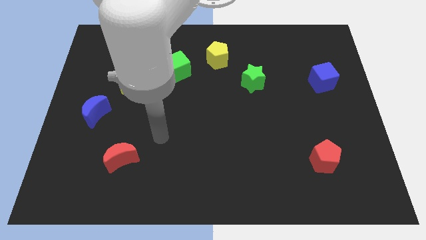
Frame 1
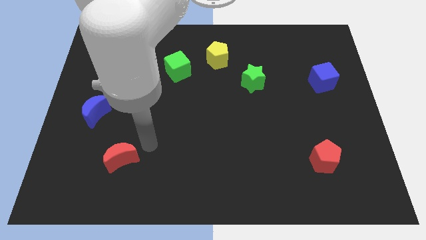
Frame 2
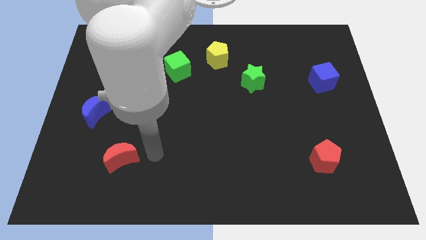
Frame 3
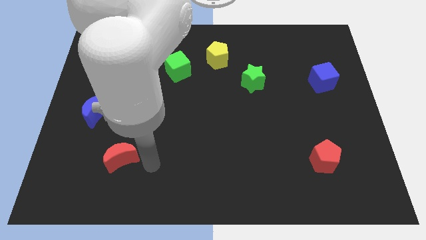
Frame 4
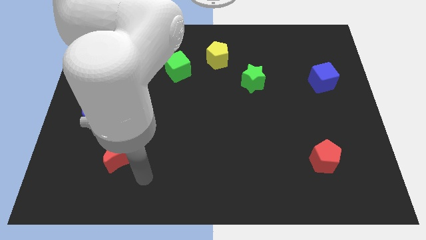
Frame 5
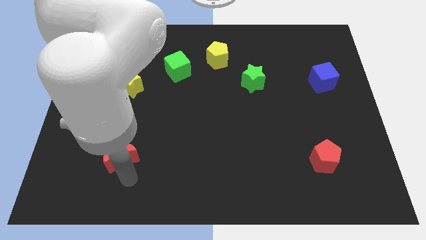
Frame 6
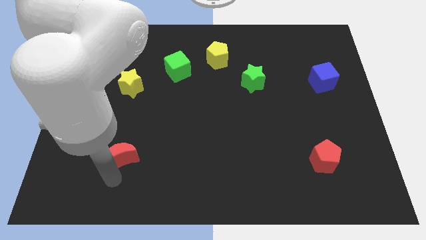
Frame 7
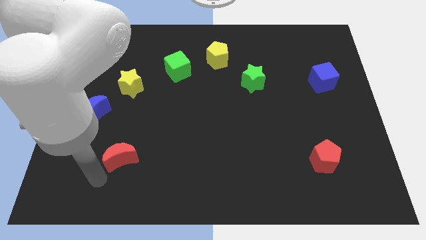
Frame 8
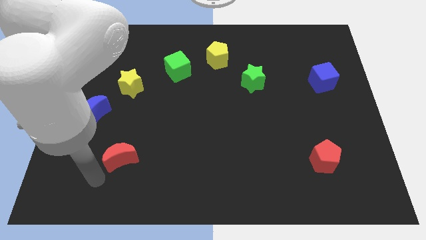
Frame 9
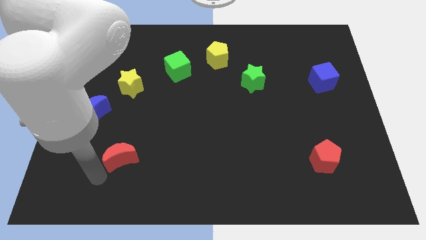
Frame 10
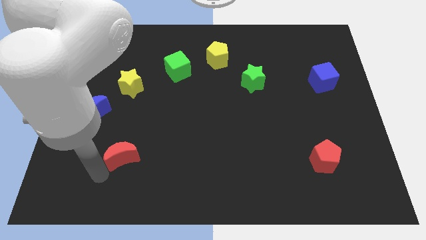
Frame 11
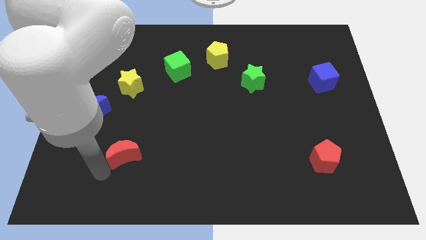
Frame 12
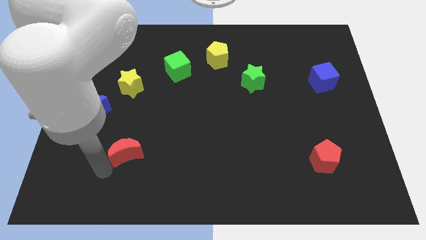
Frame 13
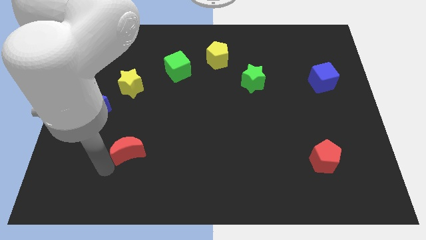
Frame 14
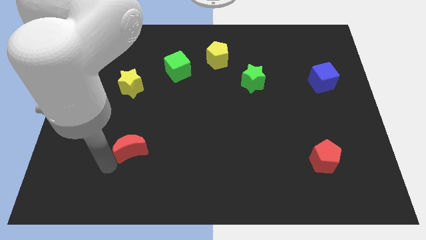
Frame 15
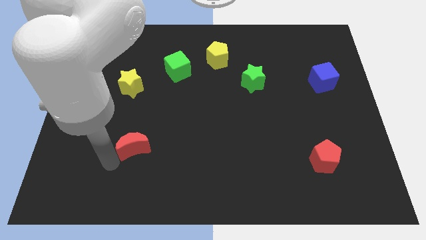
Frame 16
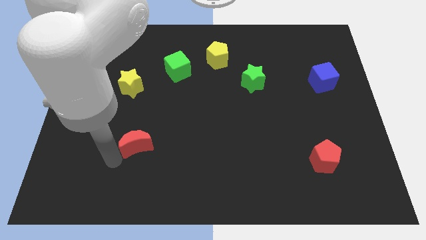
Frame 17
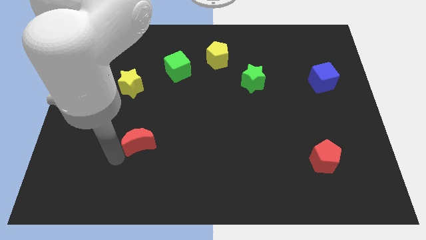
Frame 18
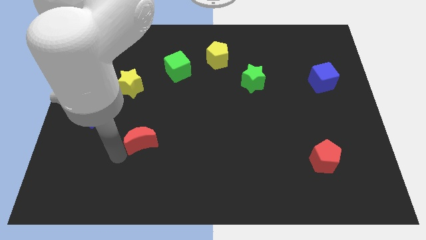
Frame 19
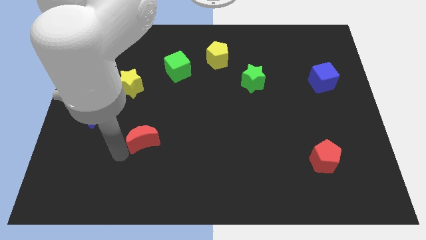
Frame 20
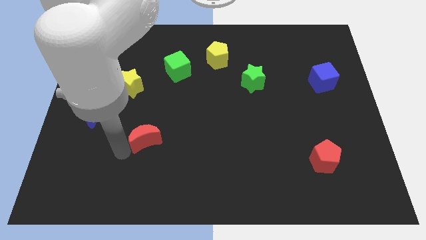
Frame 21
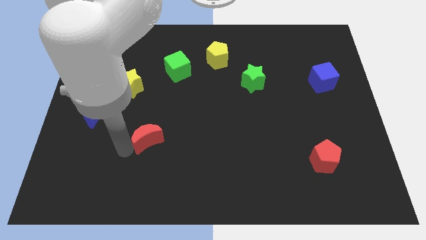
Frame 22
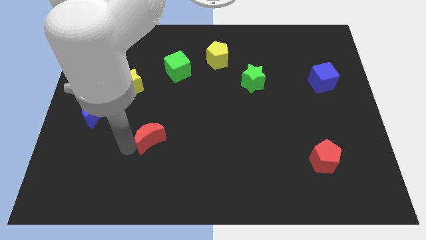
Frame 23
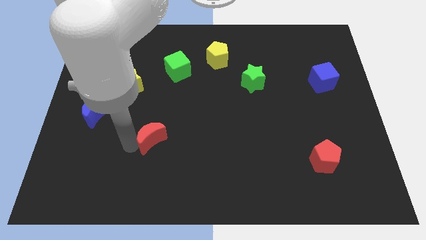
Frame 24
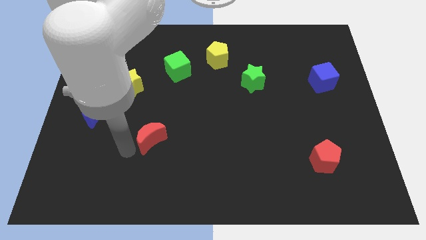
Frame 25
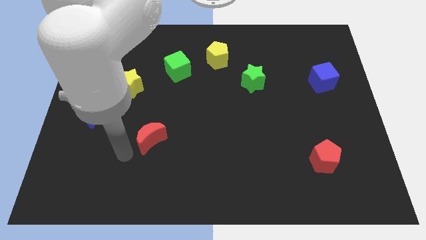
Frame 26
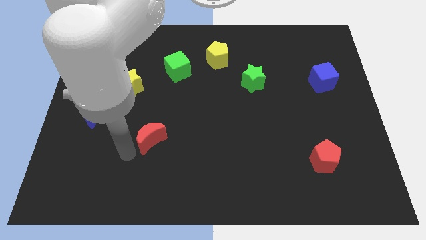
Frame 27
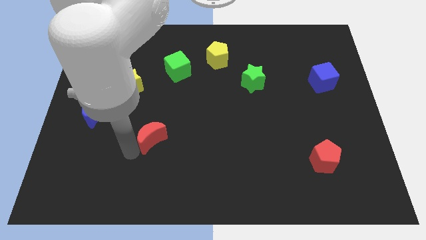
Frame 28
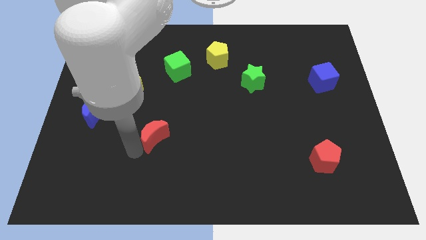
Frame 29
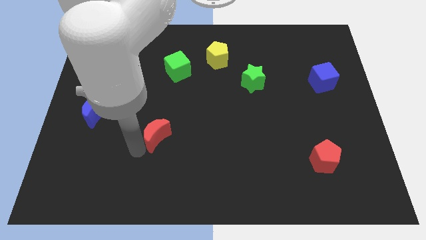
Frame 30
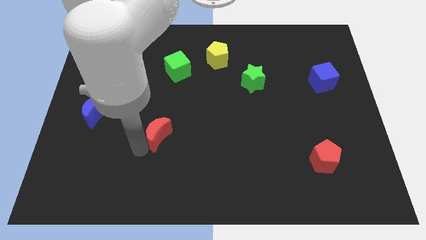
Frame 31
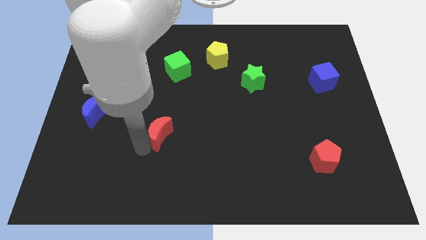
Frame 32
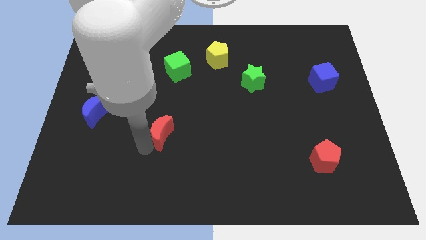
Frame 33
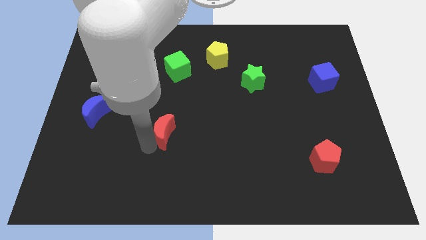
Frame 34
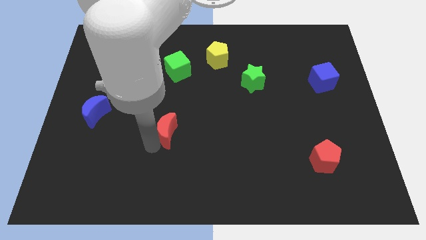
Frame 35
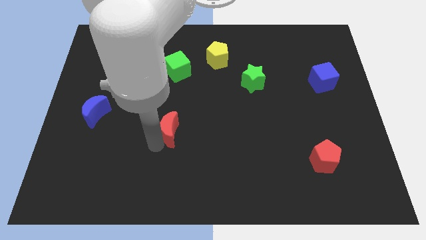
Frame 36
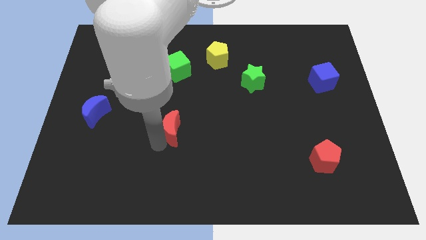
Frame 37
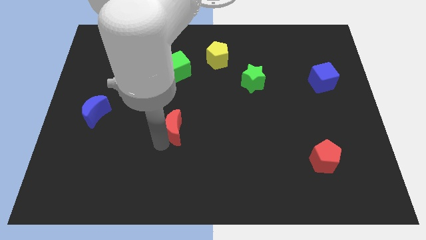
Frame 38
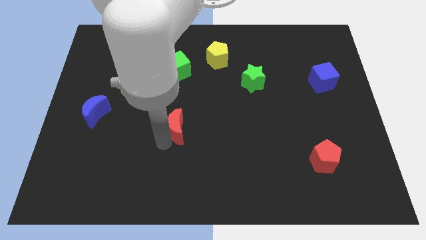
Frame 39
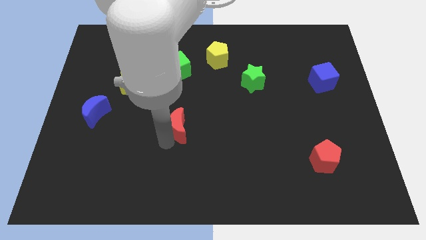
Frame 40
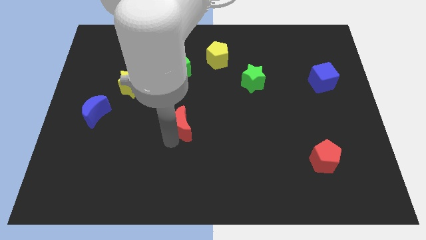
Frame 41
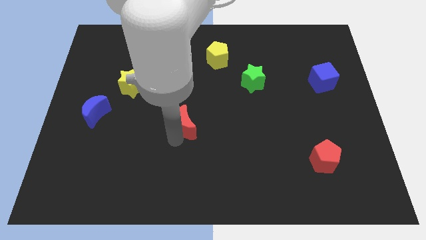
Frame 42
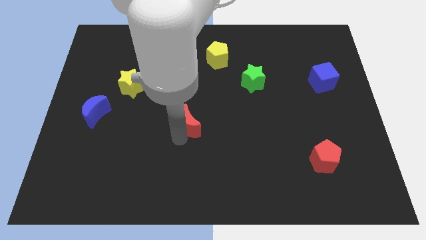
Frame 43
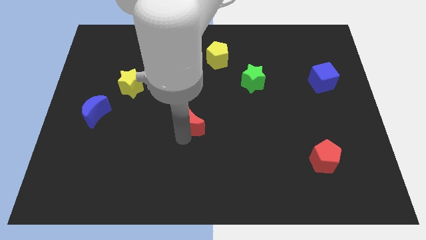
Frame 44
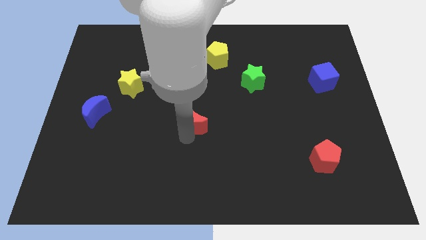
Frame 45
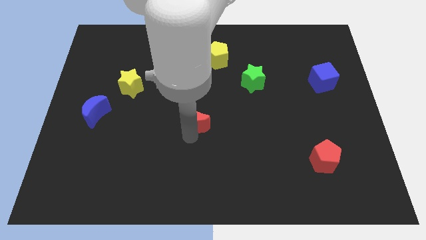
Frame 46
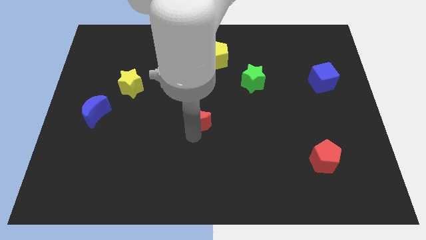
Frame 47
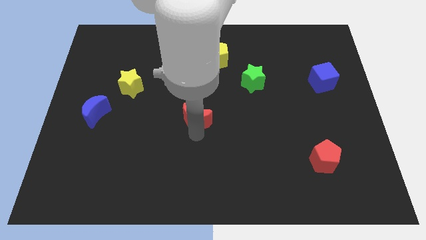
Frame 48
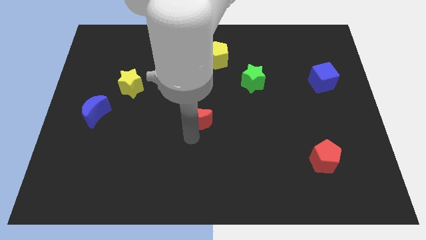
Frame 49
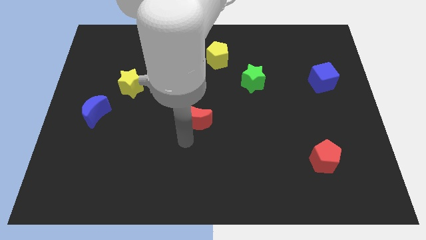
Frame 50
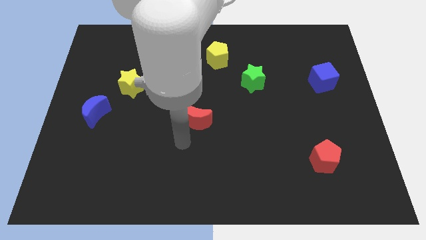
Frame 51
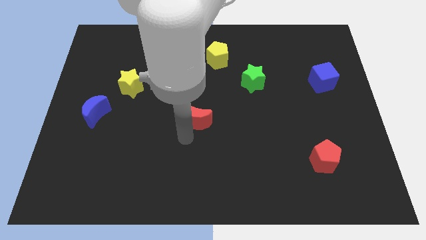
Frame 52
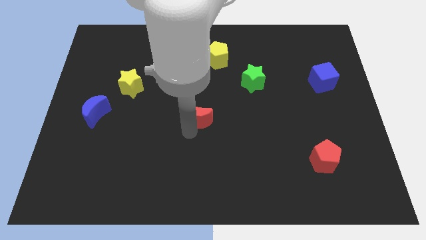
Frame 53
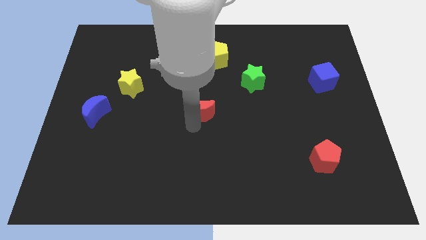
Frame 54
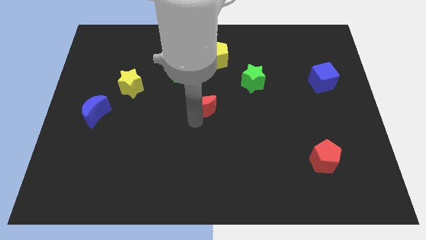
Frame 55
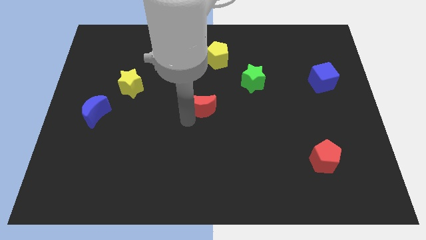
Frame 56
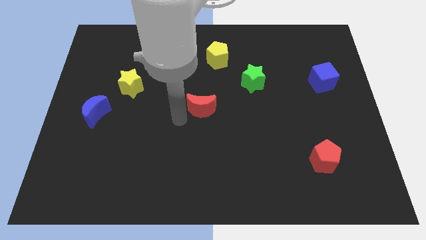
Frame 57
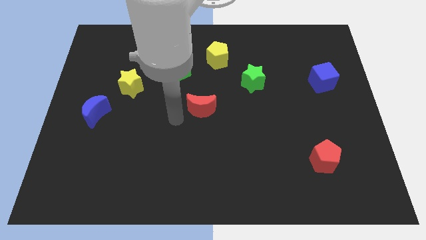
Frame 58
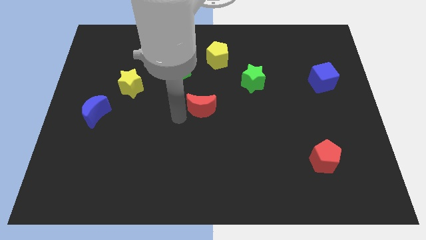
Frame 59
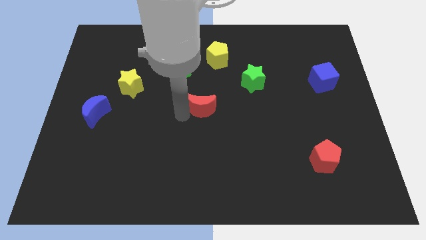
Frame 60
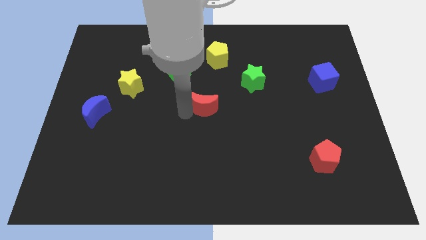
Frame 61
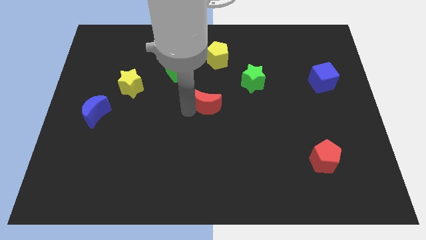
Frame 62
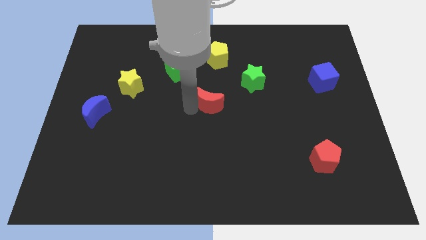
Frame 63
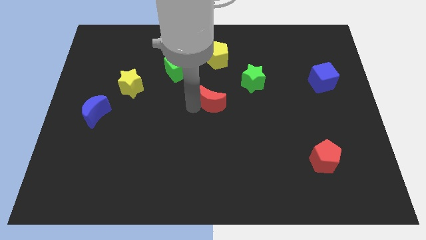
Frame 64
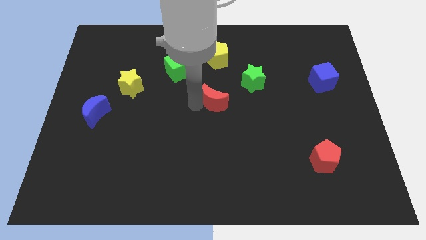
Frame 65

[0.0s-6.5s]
push the red moon diagonally down and to the left of the green star

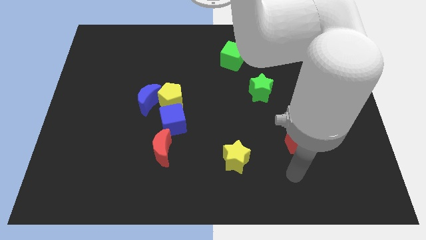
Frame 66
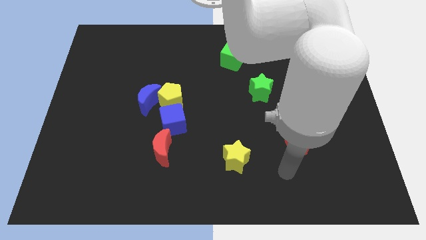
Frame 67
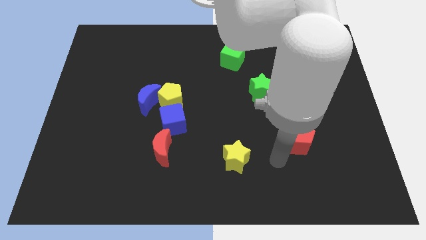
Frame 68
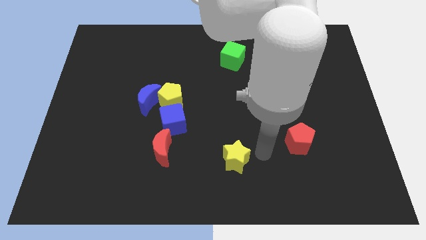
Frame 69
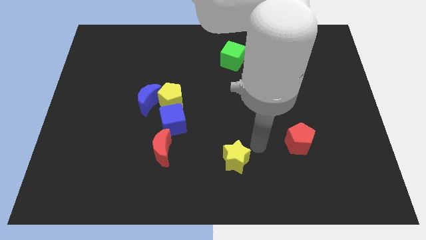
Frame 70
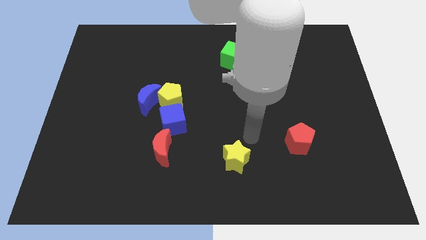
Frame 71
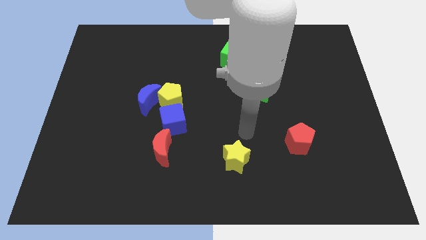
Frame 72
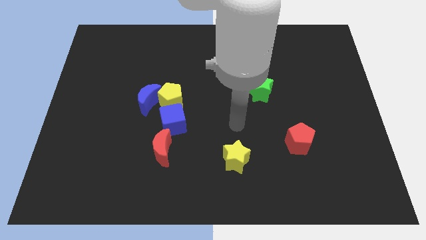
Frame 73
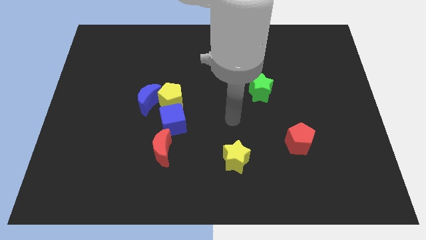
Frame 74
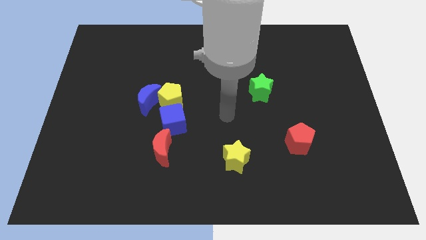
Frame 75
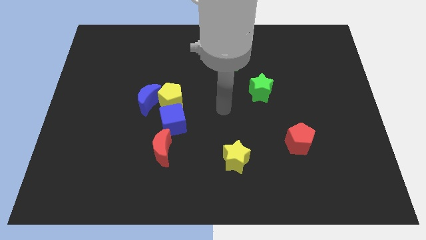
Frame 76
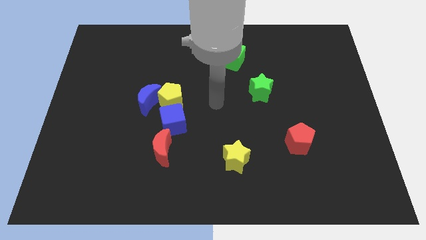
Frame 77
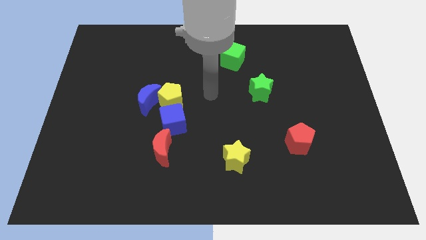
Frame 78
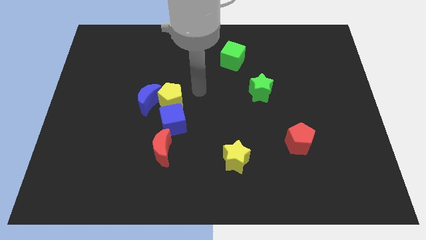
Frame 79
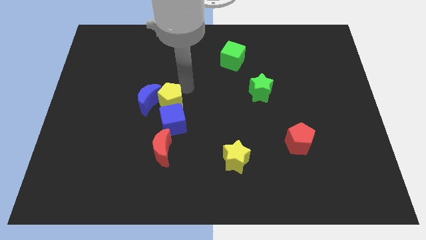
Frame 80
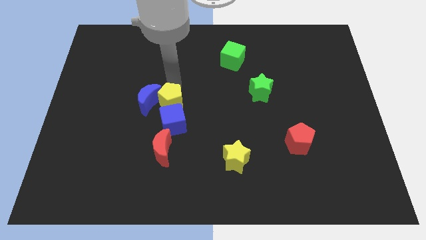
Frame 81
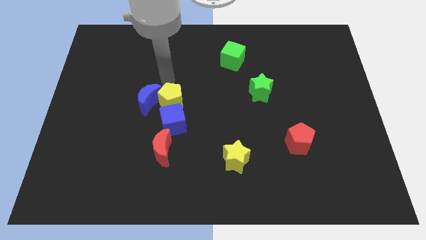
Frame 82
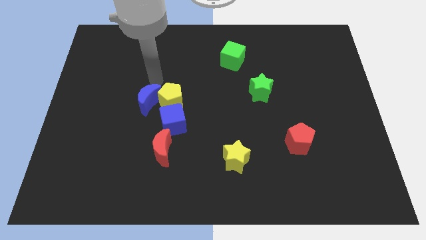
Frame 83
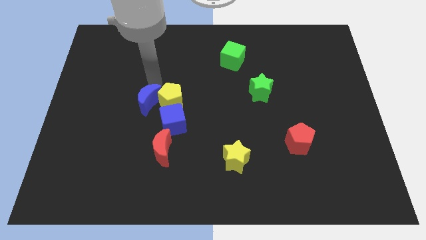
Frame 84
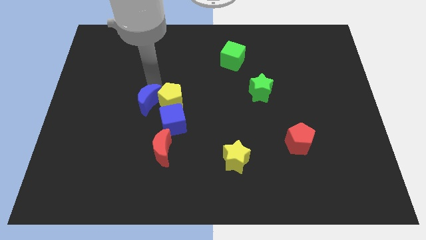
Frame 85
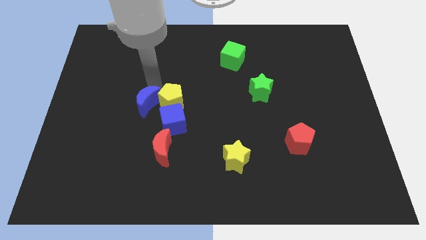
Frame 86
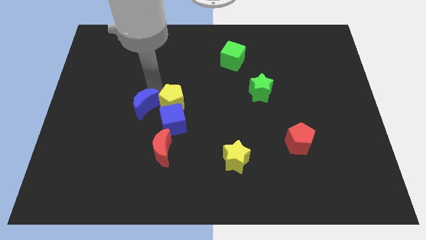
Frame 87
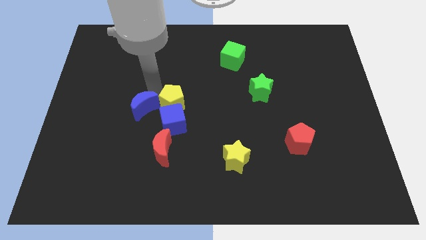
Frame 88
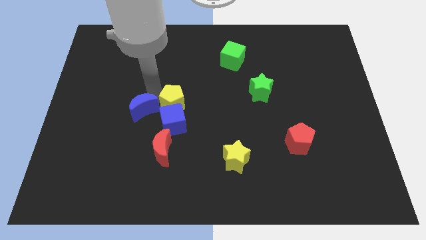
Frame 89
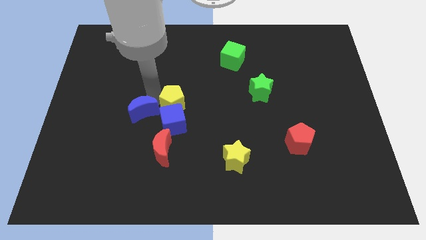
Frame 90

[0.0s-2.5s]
move the blue moon diagonally up and to the left of the red moon
